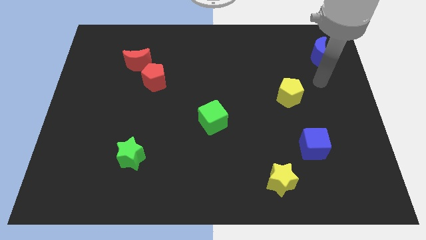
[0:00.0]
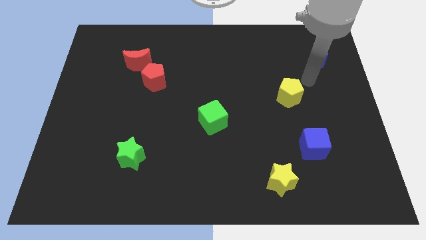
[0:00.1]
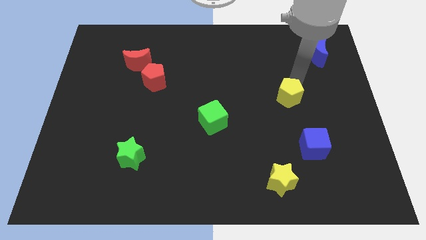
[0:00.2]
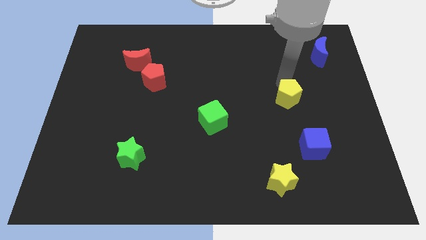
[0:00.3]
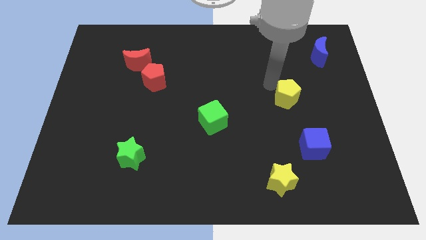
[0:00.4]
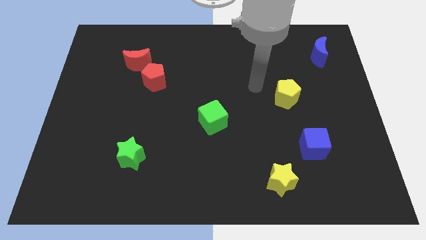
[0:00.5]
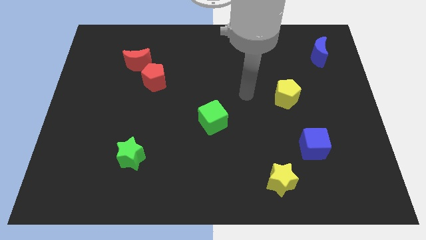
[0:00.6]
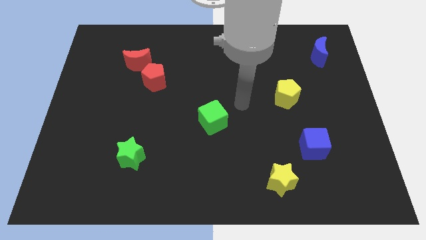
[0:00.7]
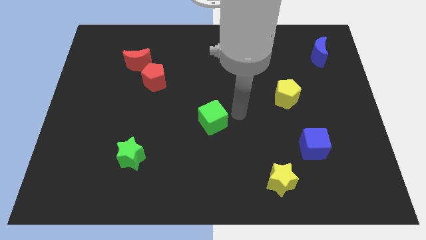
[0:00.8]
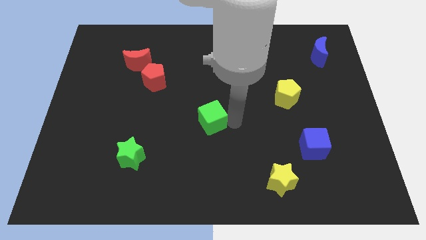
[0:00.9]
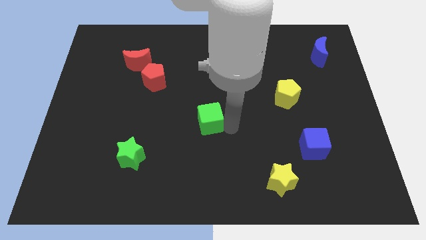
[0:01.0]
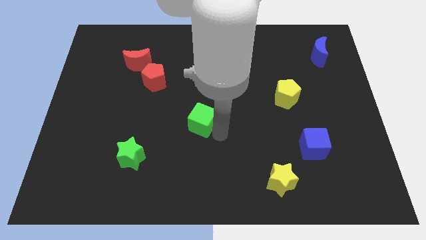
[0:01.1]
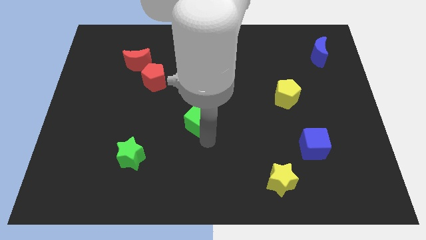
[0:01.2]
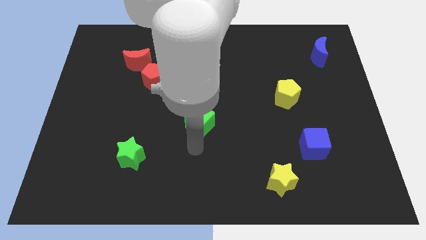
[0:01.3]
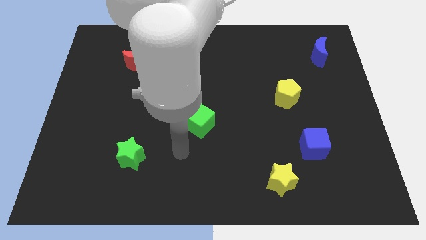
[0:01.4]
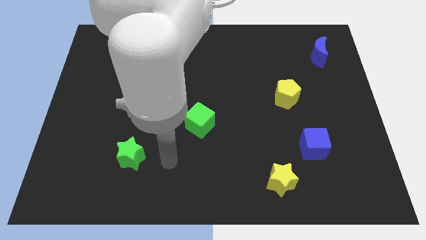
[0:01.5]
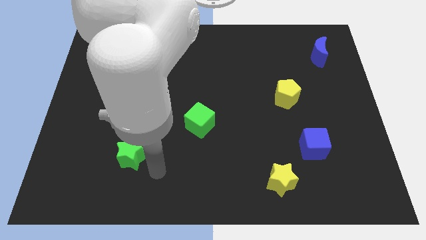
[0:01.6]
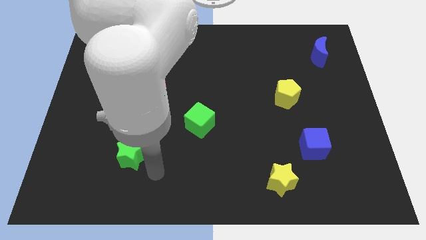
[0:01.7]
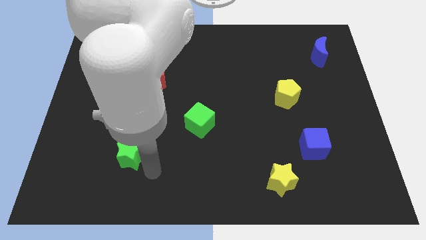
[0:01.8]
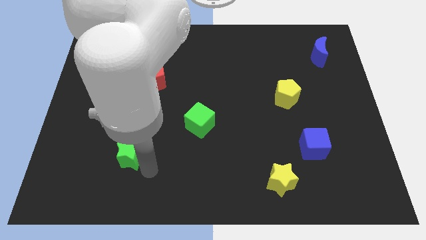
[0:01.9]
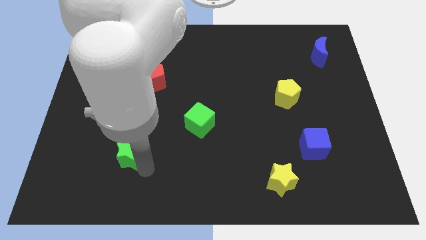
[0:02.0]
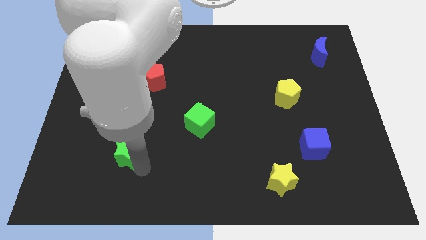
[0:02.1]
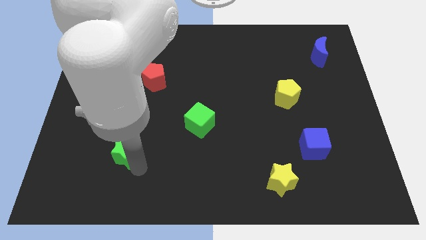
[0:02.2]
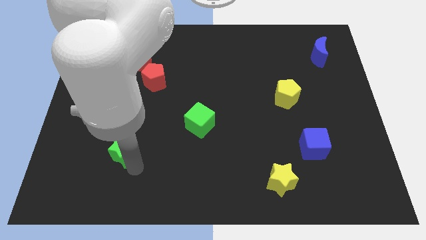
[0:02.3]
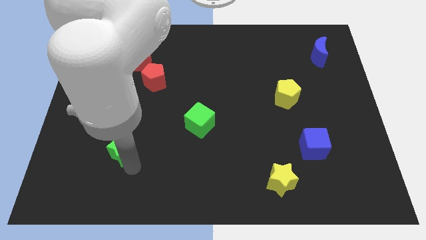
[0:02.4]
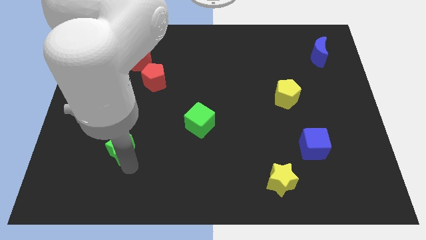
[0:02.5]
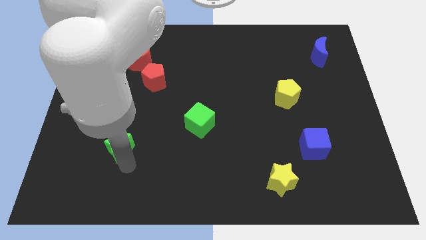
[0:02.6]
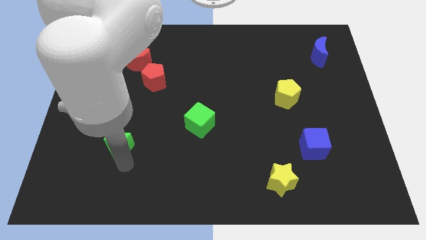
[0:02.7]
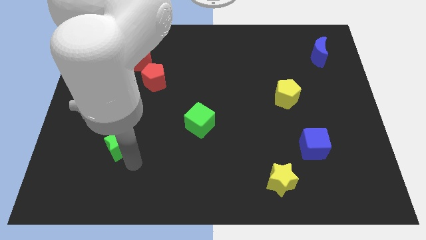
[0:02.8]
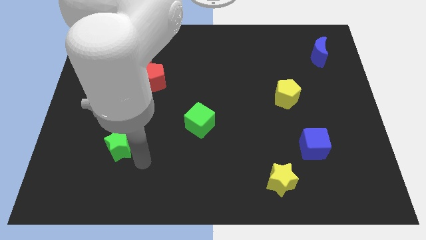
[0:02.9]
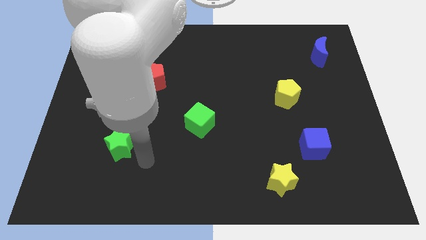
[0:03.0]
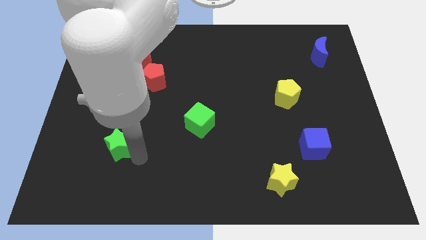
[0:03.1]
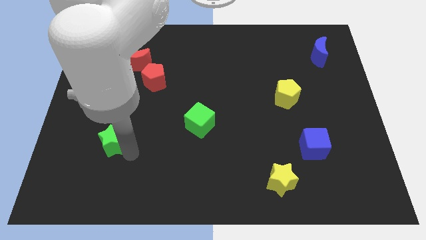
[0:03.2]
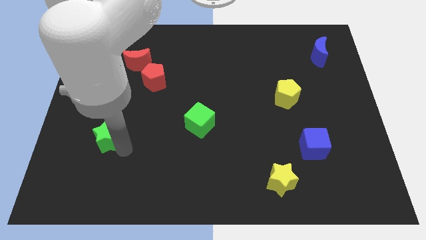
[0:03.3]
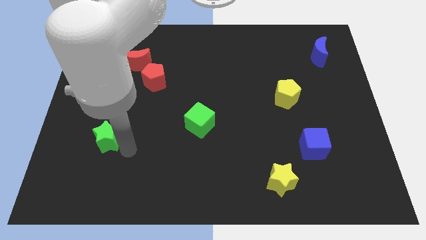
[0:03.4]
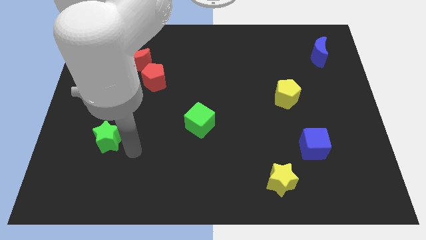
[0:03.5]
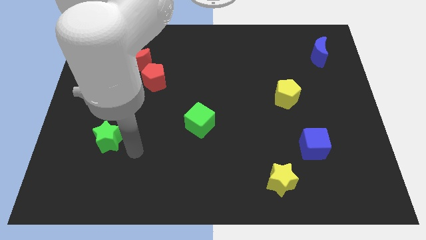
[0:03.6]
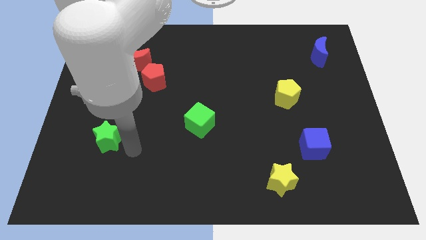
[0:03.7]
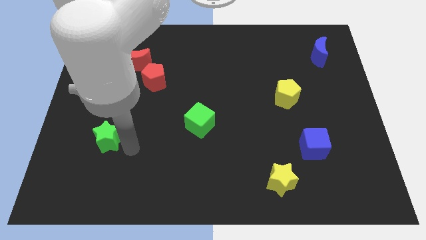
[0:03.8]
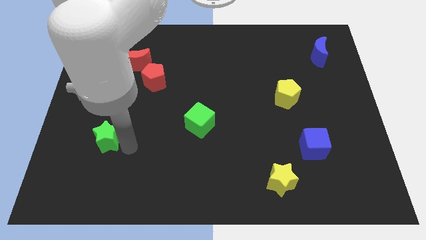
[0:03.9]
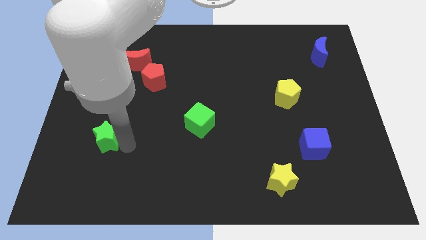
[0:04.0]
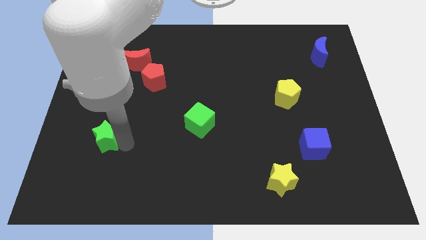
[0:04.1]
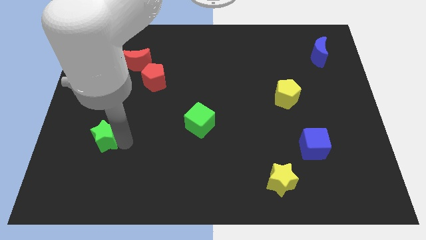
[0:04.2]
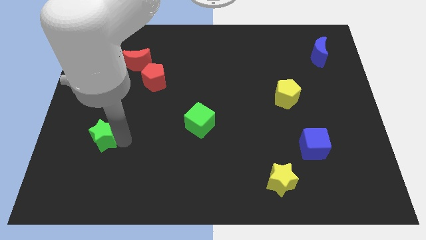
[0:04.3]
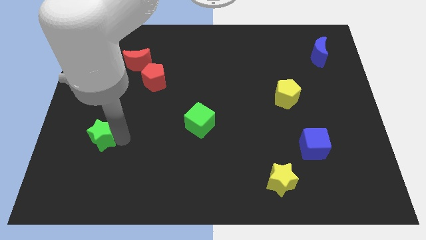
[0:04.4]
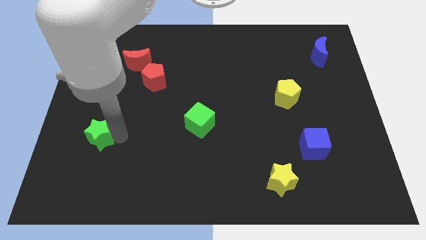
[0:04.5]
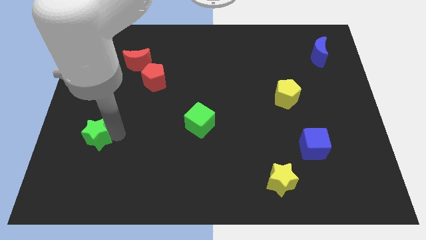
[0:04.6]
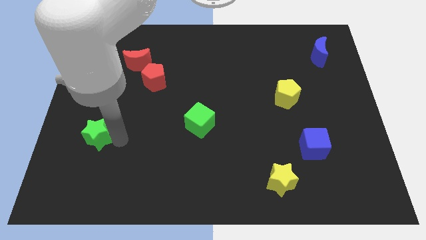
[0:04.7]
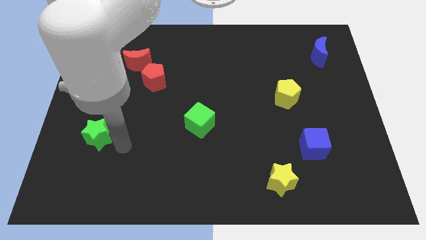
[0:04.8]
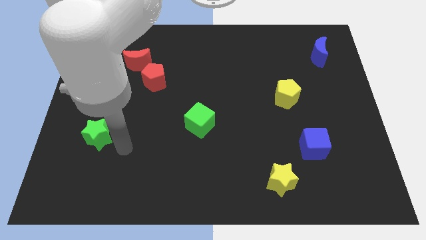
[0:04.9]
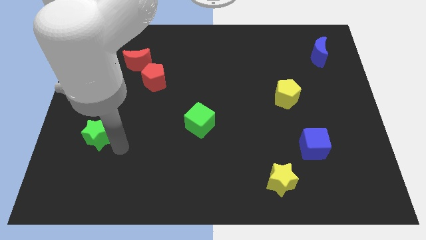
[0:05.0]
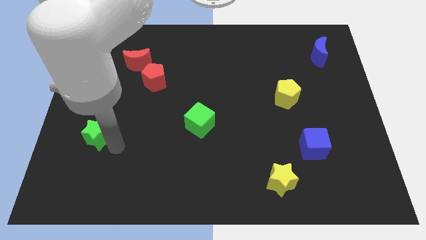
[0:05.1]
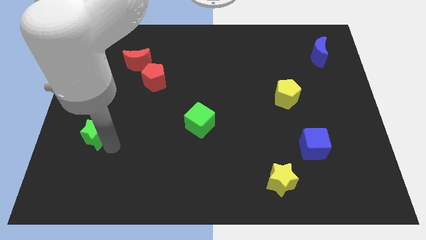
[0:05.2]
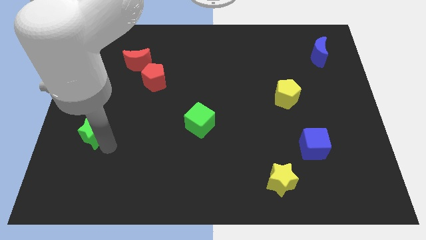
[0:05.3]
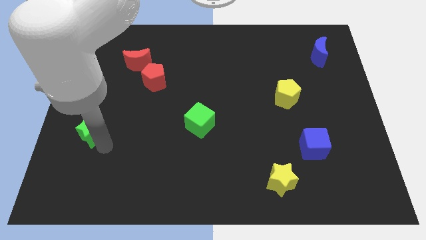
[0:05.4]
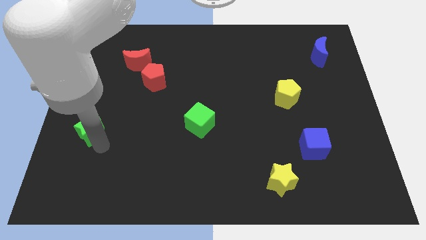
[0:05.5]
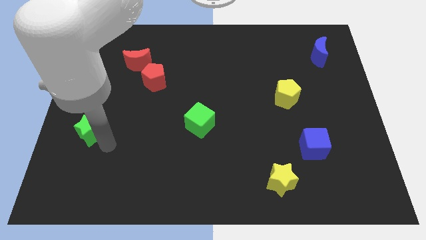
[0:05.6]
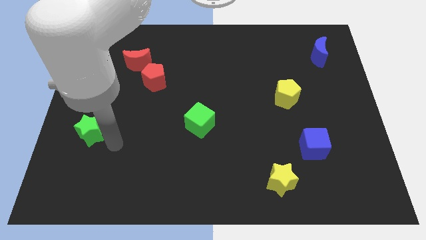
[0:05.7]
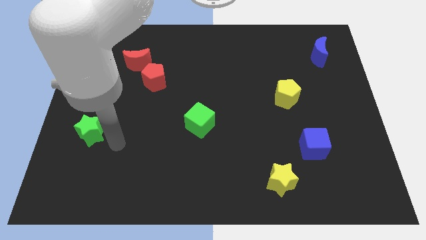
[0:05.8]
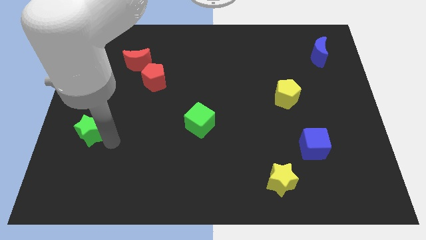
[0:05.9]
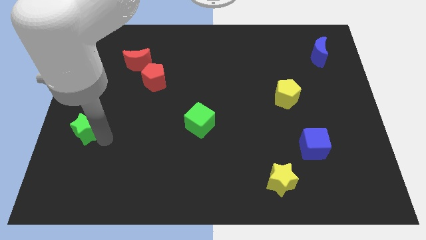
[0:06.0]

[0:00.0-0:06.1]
move the green star to the left side
